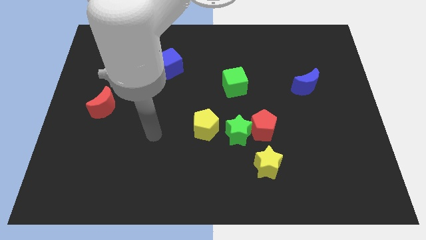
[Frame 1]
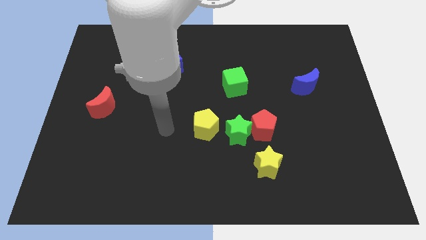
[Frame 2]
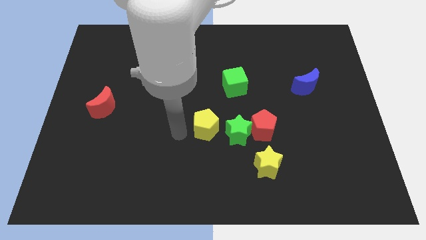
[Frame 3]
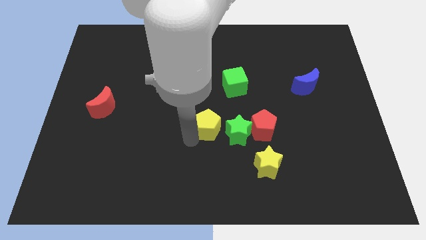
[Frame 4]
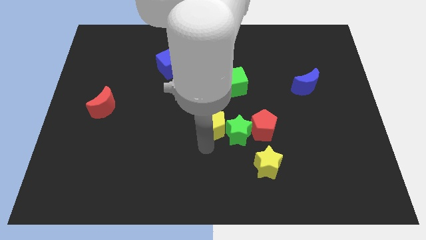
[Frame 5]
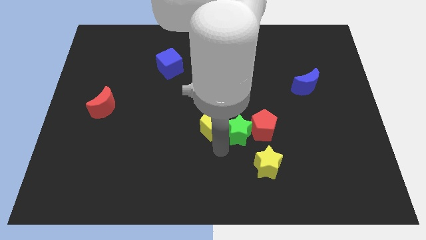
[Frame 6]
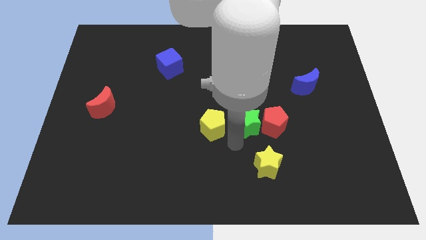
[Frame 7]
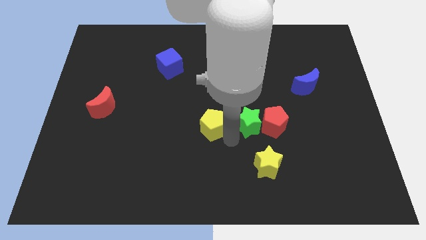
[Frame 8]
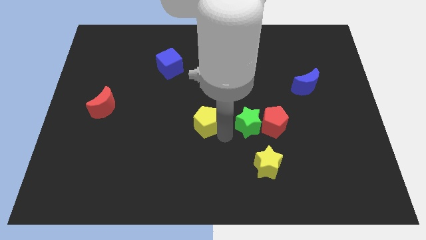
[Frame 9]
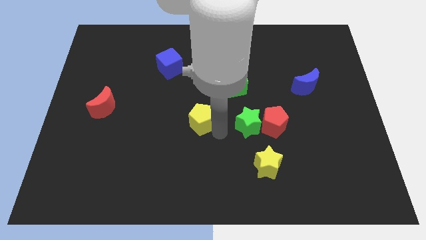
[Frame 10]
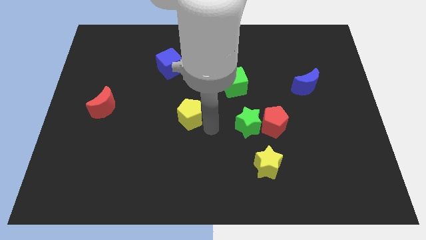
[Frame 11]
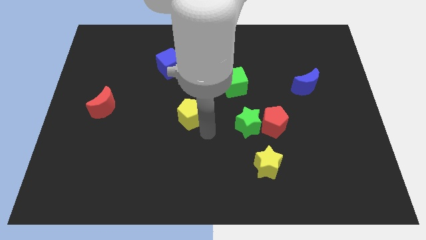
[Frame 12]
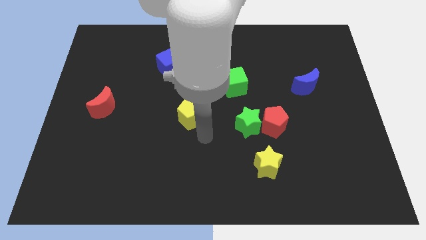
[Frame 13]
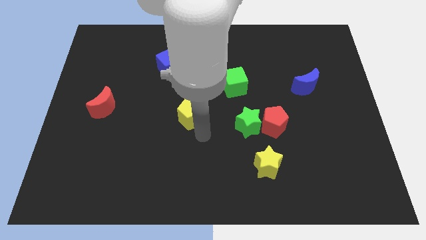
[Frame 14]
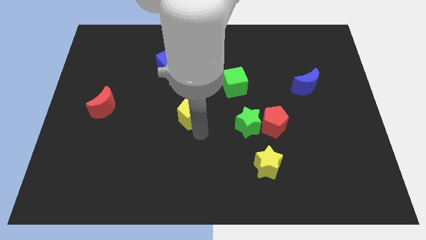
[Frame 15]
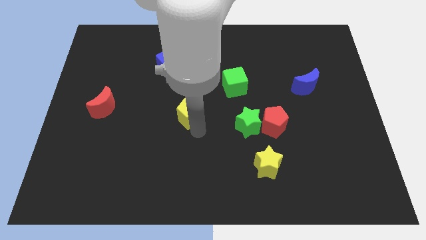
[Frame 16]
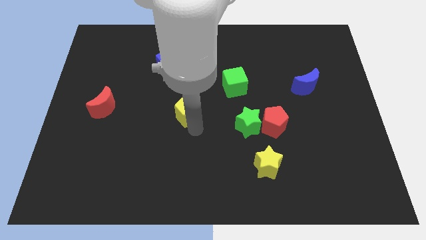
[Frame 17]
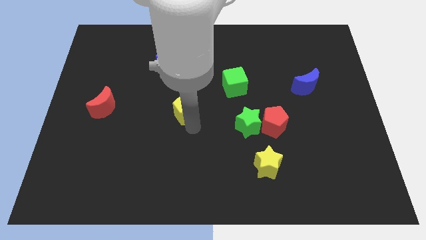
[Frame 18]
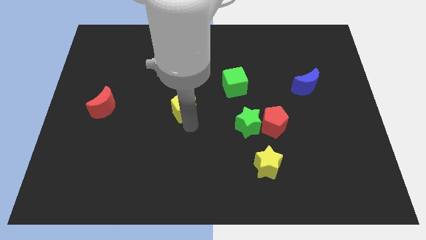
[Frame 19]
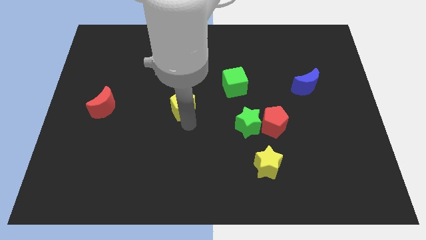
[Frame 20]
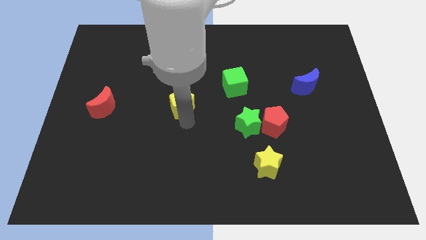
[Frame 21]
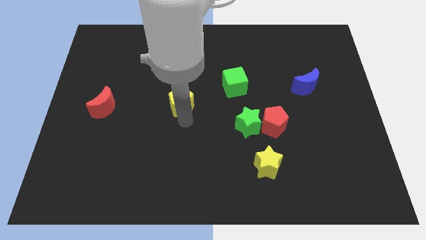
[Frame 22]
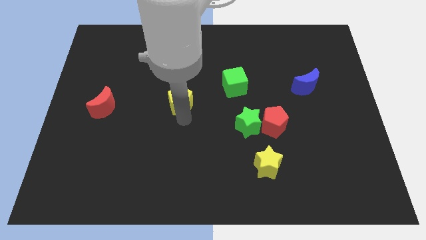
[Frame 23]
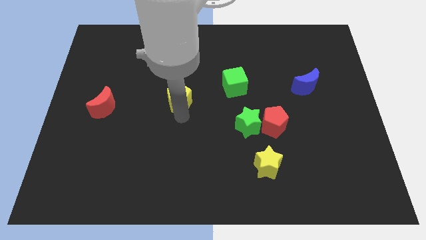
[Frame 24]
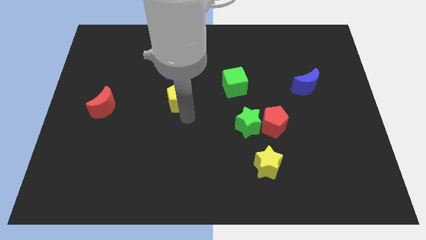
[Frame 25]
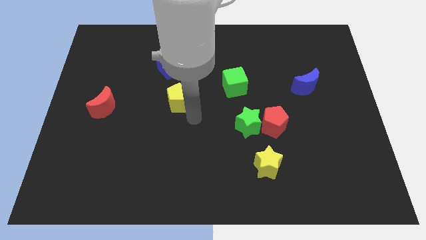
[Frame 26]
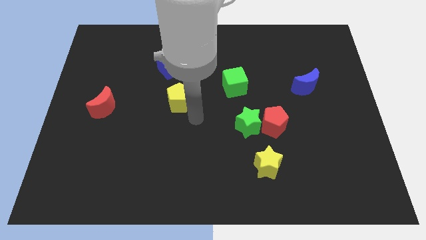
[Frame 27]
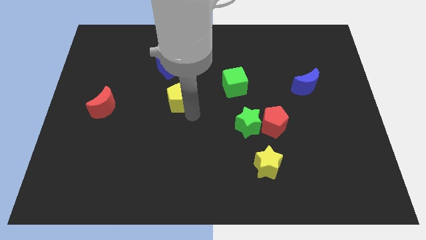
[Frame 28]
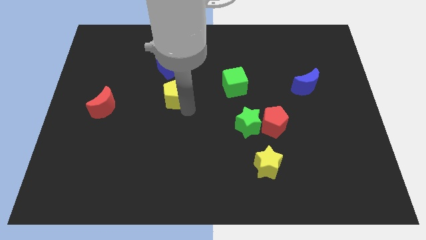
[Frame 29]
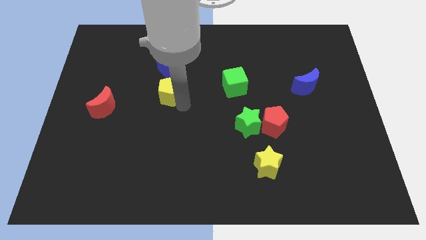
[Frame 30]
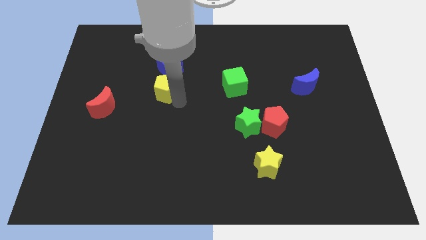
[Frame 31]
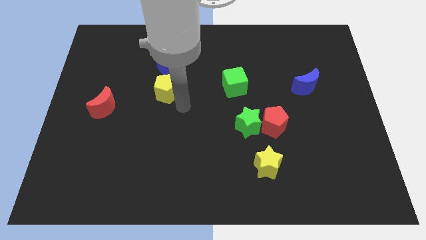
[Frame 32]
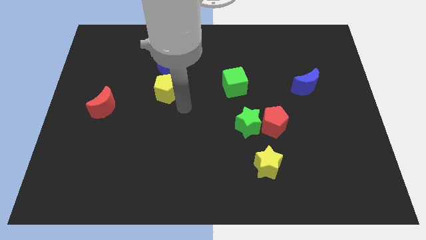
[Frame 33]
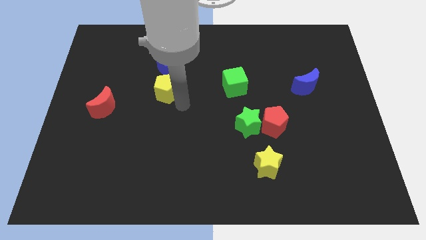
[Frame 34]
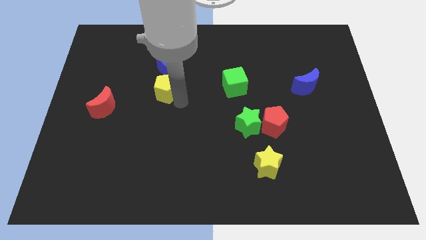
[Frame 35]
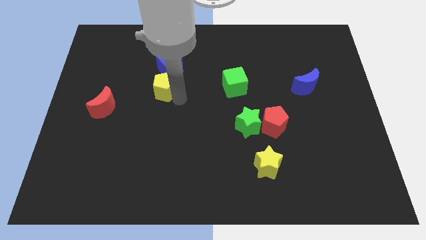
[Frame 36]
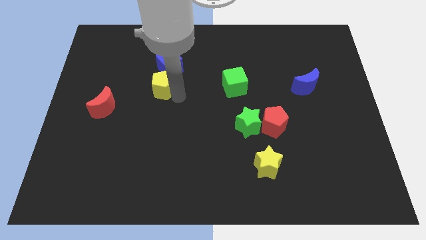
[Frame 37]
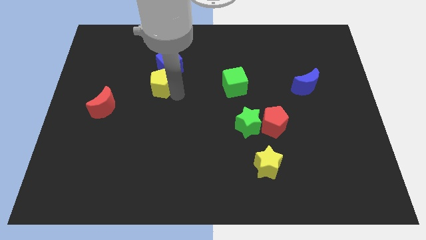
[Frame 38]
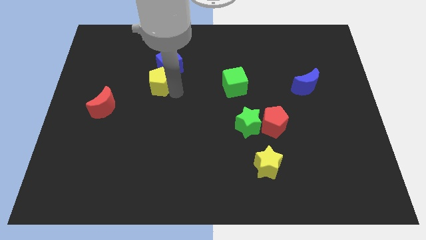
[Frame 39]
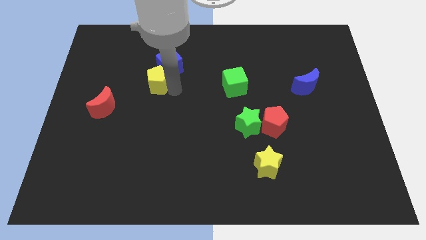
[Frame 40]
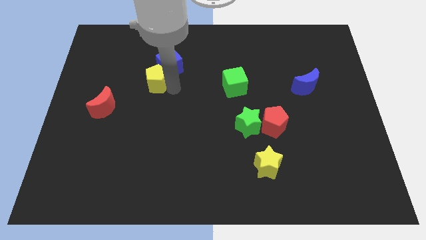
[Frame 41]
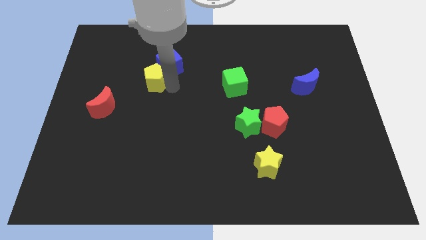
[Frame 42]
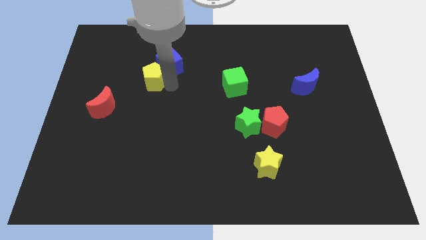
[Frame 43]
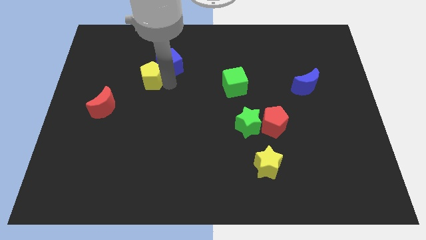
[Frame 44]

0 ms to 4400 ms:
move the yellow pentagon upwards and then left

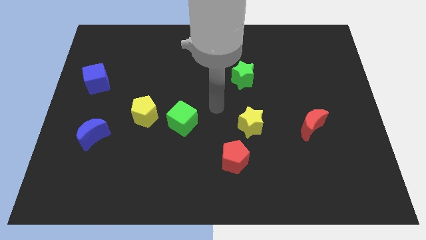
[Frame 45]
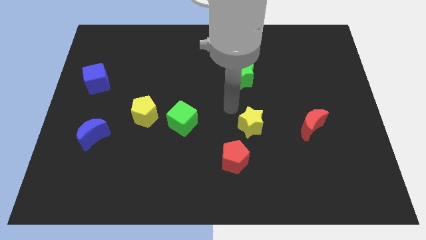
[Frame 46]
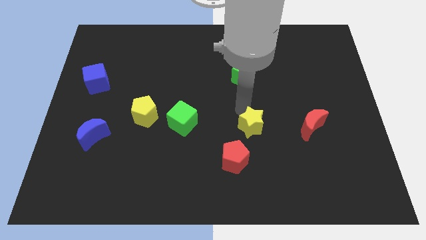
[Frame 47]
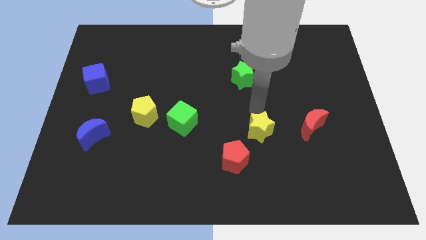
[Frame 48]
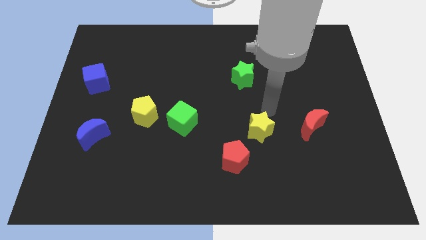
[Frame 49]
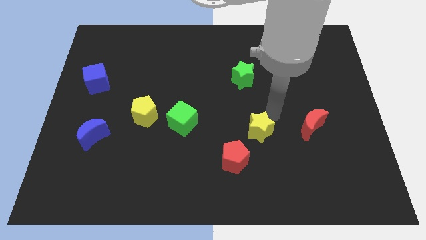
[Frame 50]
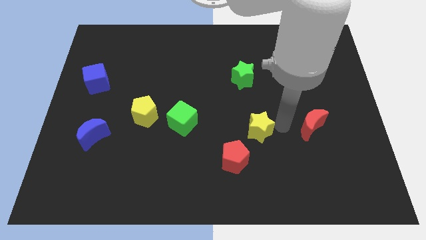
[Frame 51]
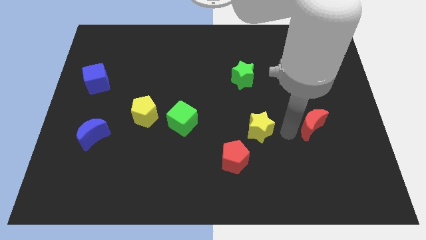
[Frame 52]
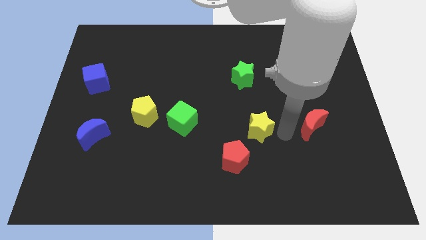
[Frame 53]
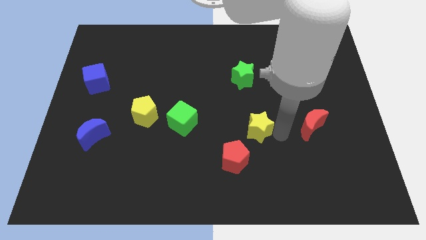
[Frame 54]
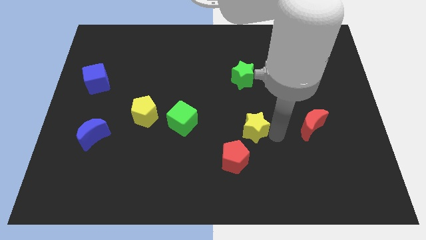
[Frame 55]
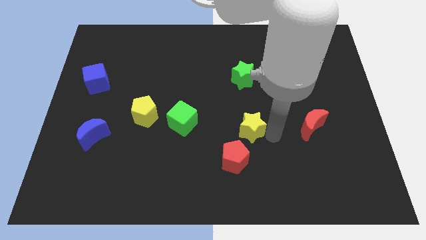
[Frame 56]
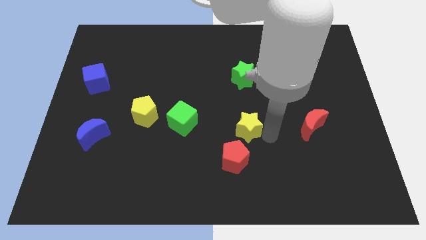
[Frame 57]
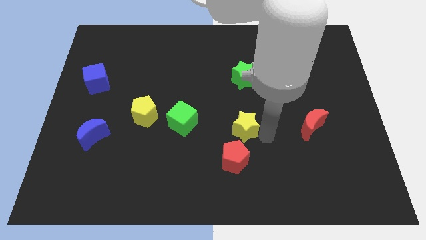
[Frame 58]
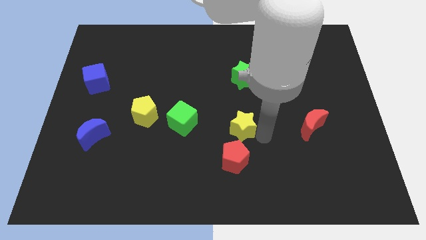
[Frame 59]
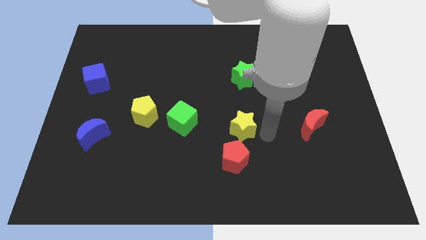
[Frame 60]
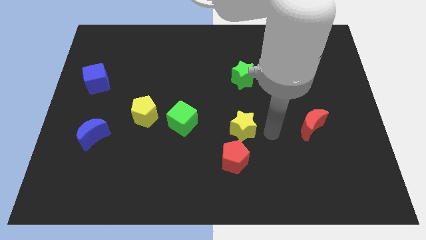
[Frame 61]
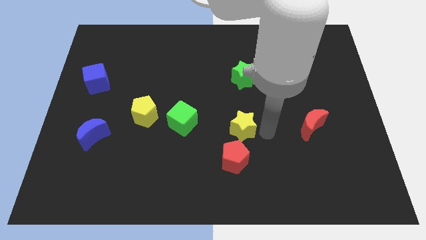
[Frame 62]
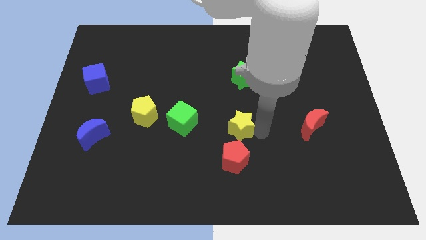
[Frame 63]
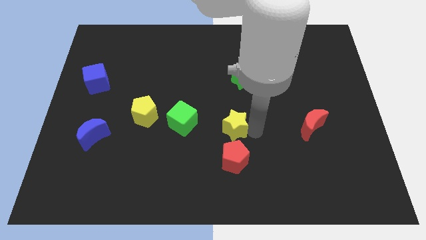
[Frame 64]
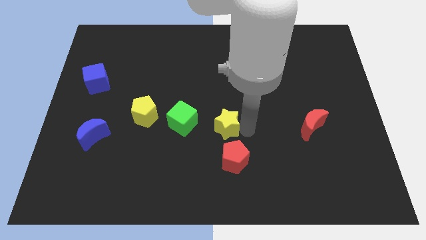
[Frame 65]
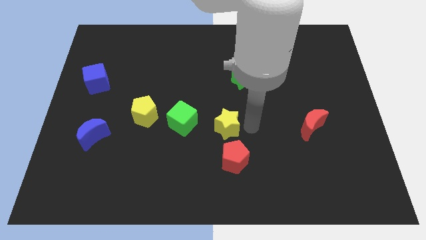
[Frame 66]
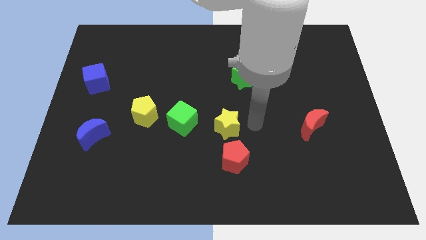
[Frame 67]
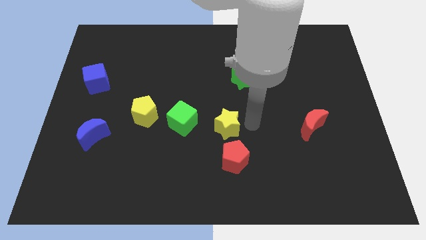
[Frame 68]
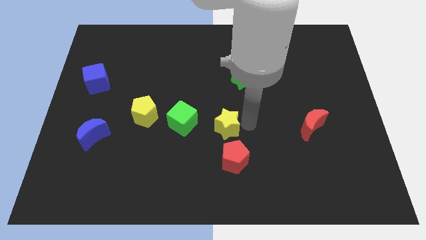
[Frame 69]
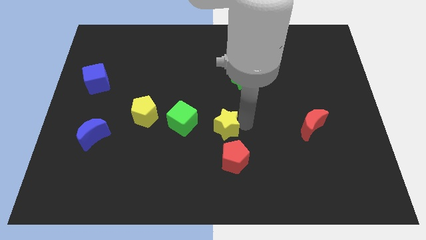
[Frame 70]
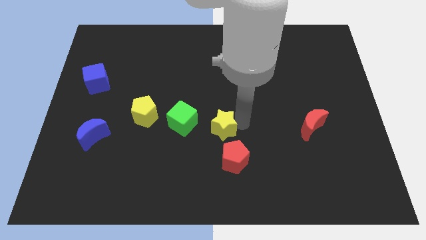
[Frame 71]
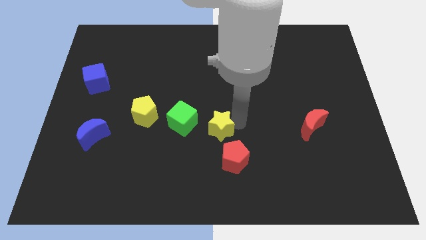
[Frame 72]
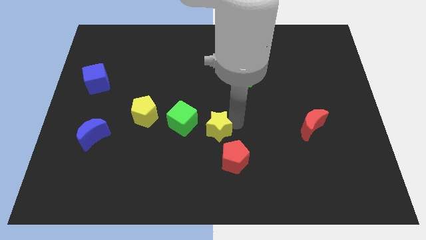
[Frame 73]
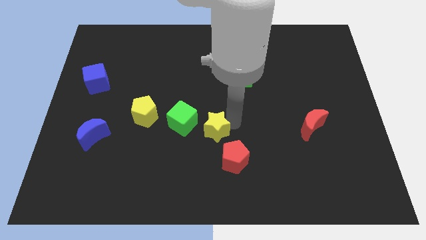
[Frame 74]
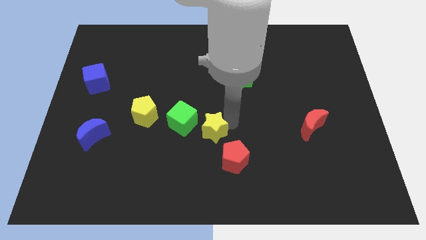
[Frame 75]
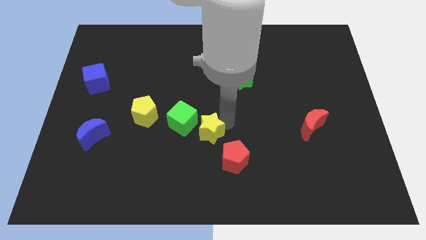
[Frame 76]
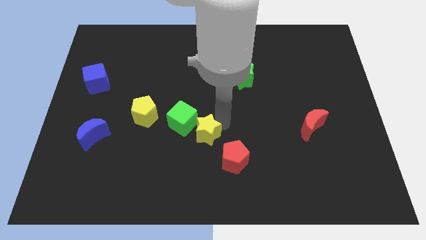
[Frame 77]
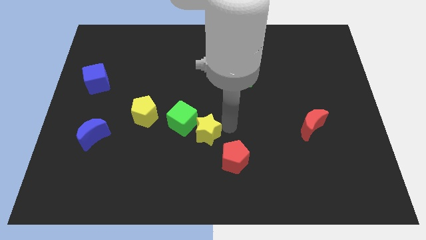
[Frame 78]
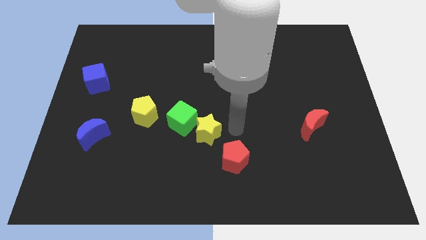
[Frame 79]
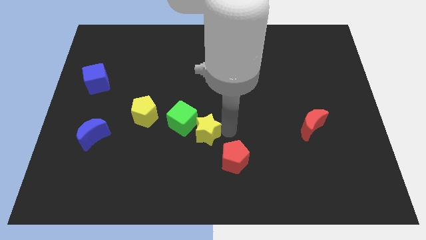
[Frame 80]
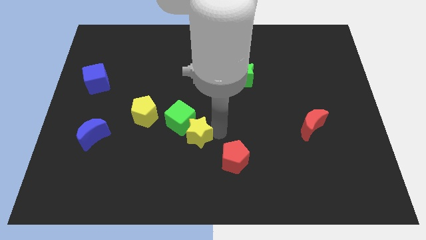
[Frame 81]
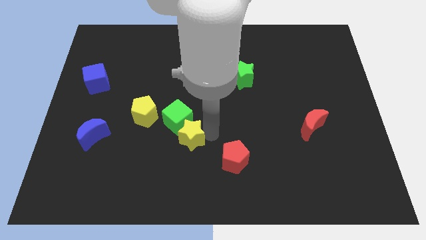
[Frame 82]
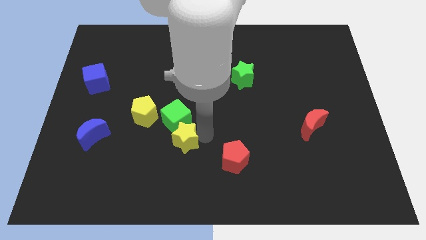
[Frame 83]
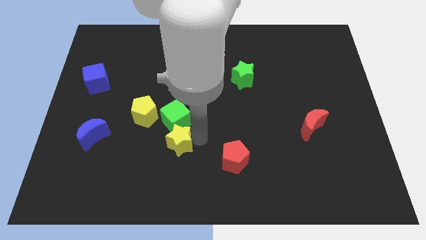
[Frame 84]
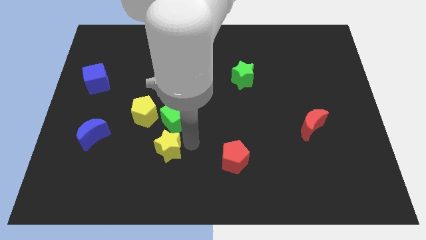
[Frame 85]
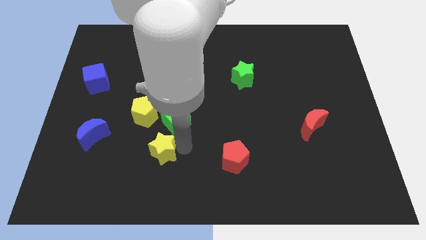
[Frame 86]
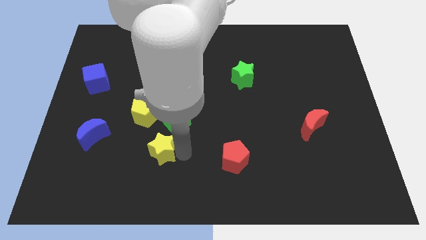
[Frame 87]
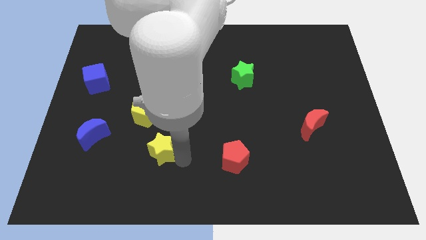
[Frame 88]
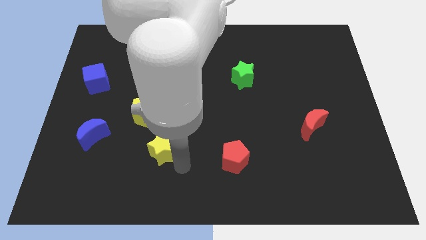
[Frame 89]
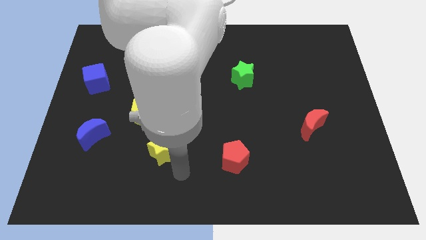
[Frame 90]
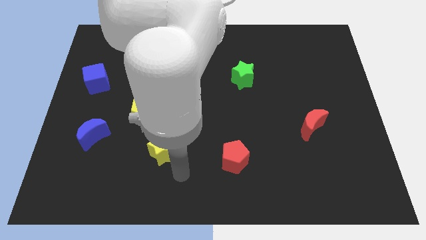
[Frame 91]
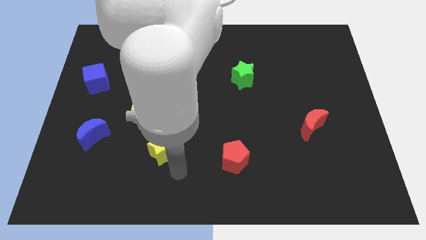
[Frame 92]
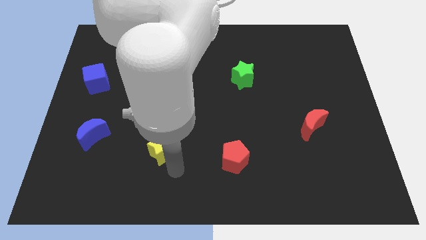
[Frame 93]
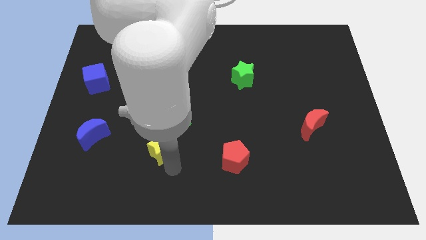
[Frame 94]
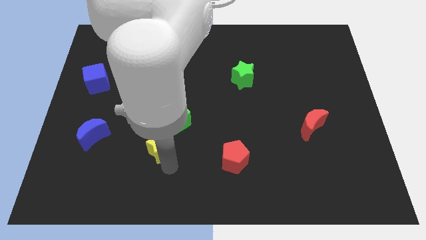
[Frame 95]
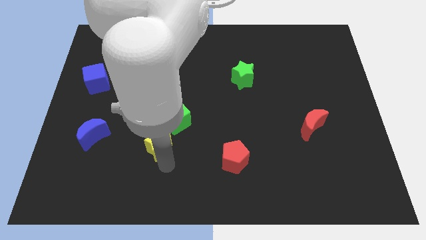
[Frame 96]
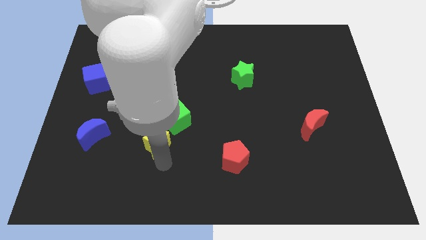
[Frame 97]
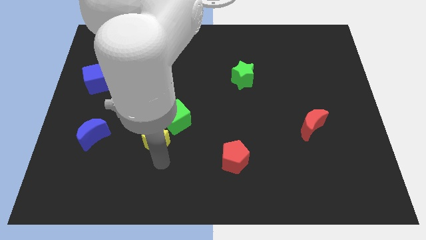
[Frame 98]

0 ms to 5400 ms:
push the yellow star to the left
